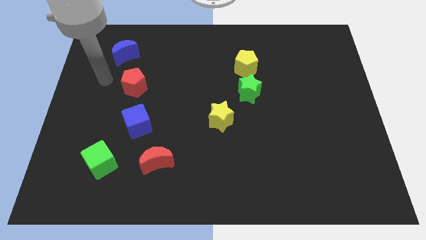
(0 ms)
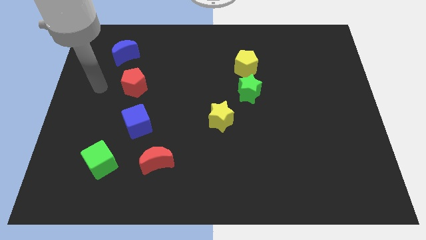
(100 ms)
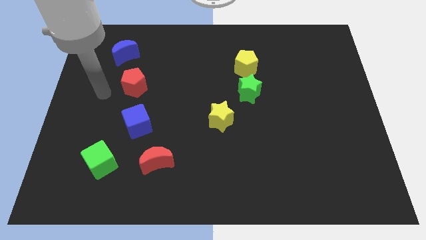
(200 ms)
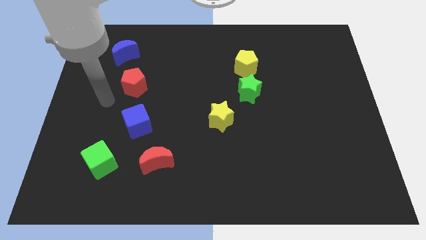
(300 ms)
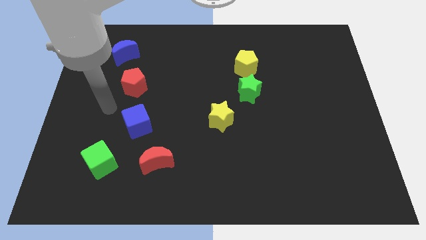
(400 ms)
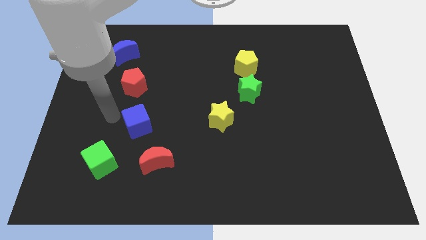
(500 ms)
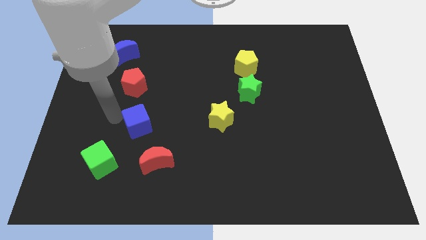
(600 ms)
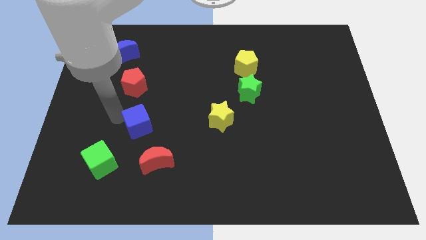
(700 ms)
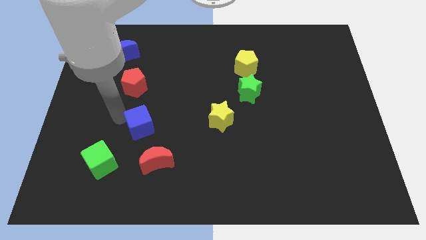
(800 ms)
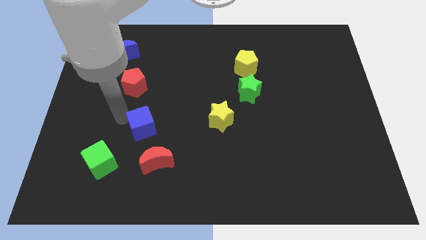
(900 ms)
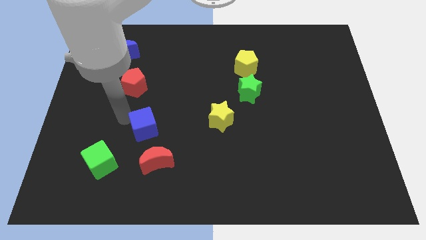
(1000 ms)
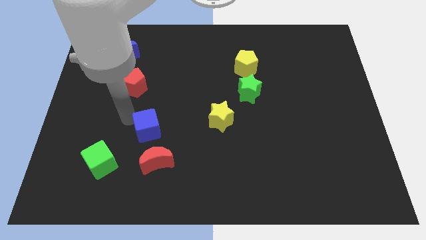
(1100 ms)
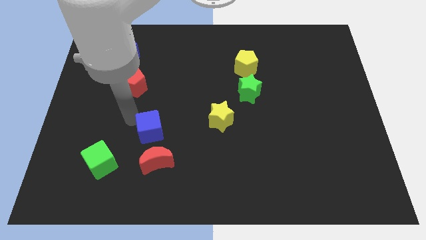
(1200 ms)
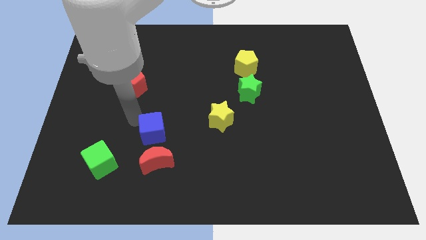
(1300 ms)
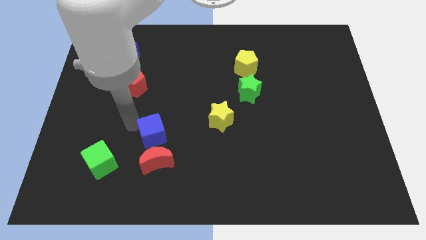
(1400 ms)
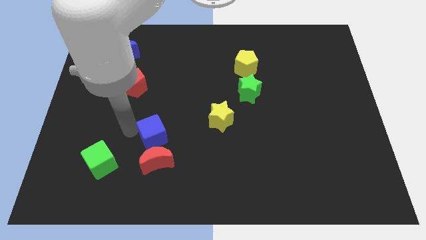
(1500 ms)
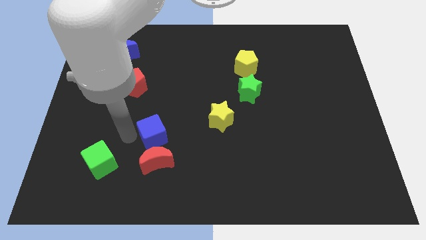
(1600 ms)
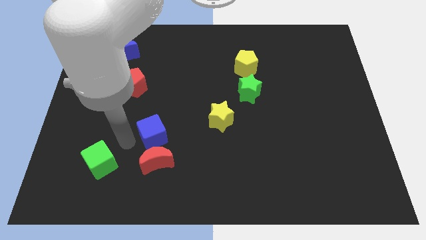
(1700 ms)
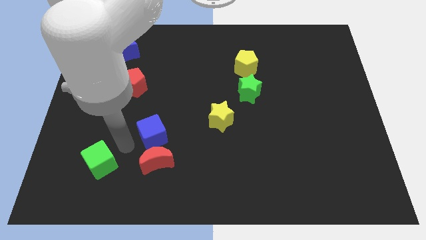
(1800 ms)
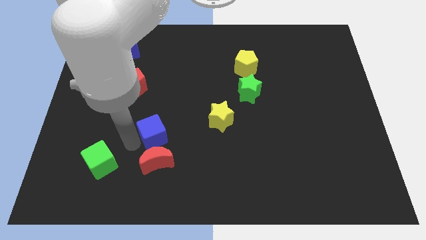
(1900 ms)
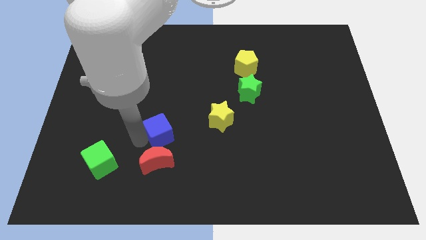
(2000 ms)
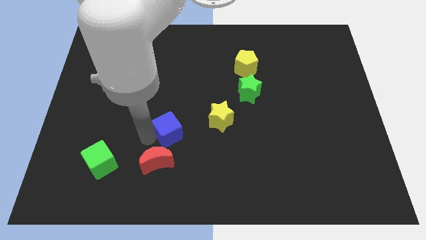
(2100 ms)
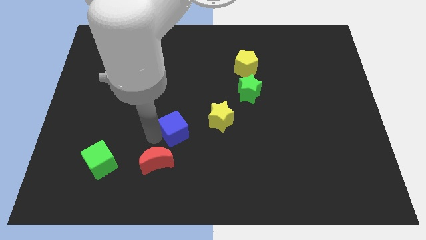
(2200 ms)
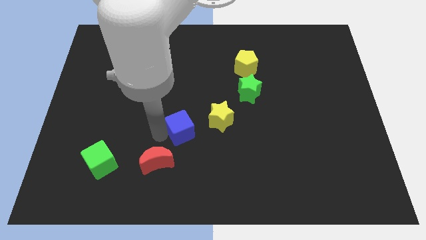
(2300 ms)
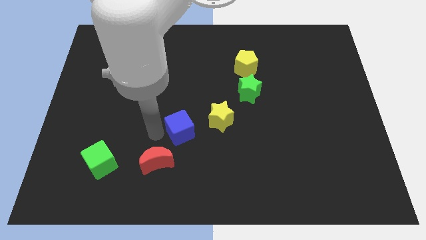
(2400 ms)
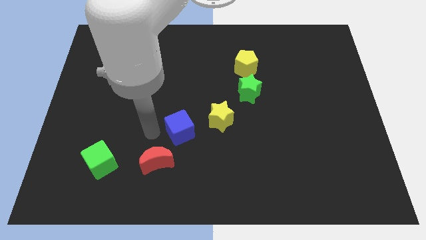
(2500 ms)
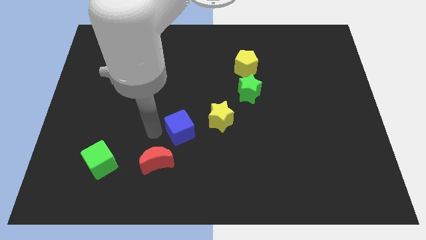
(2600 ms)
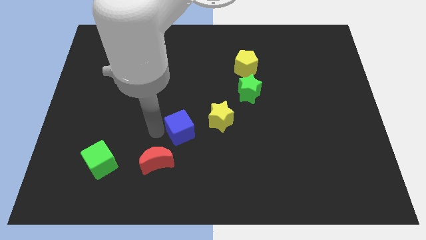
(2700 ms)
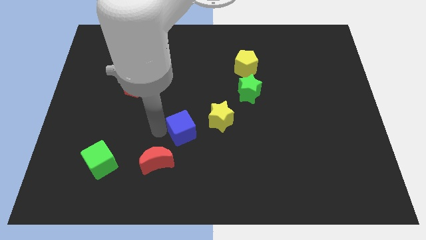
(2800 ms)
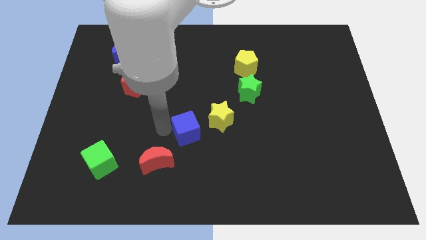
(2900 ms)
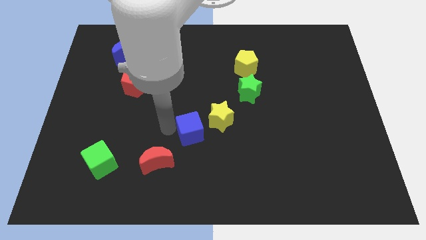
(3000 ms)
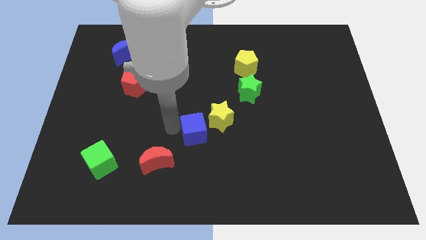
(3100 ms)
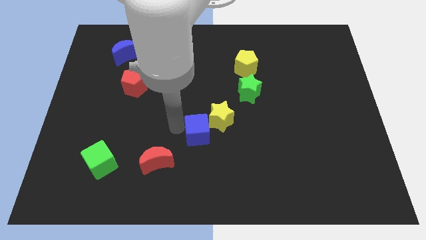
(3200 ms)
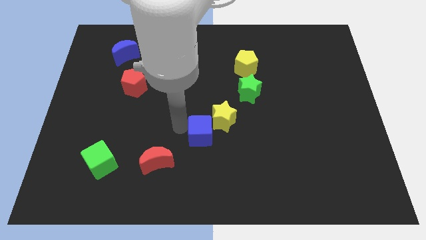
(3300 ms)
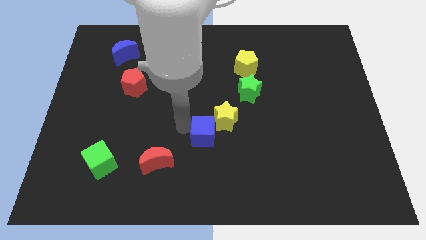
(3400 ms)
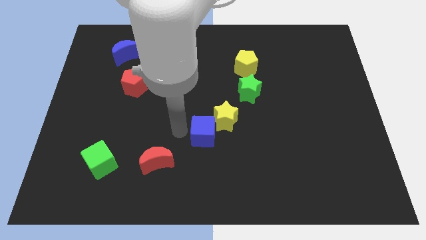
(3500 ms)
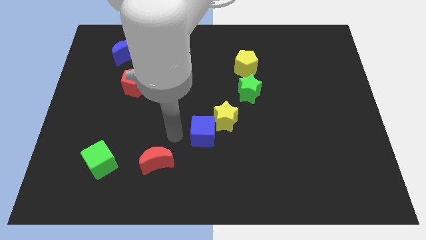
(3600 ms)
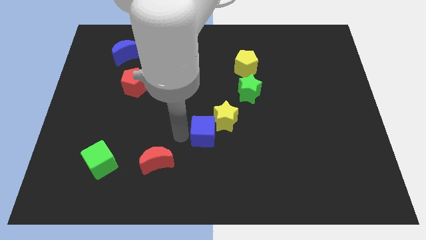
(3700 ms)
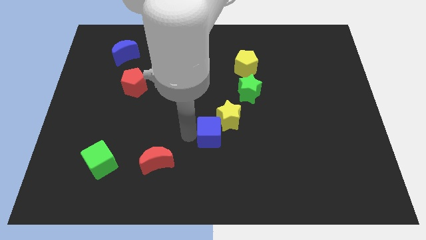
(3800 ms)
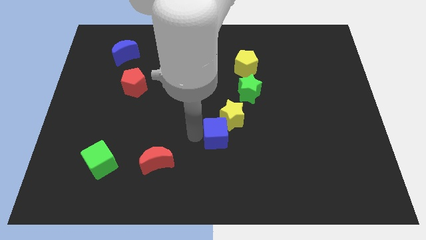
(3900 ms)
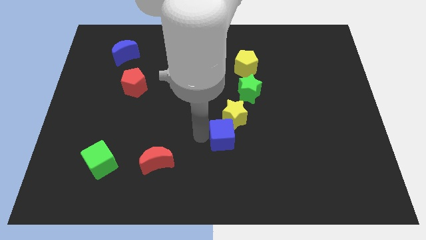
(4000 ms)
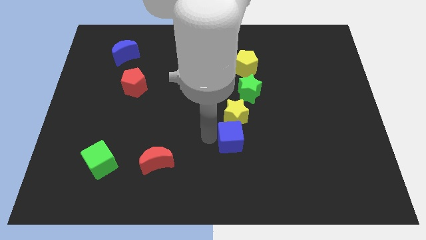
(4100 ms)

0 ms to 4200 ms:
push the blue cube right

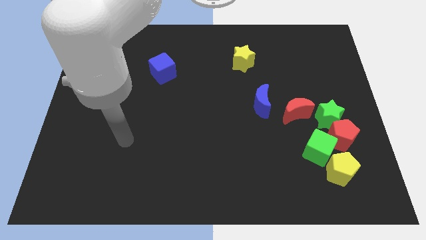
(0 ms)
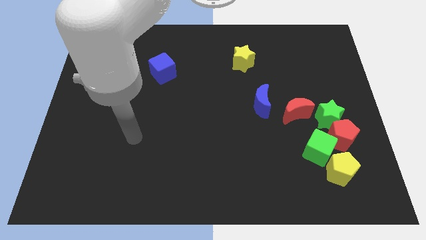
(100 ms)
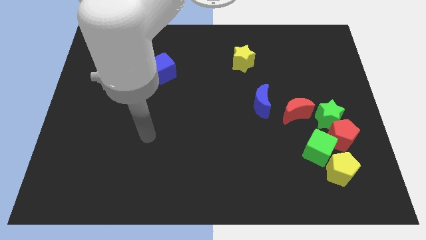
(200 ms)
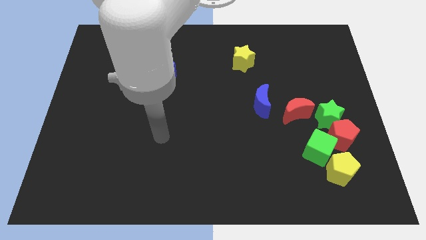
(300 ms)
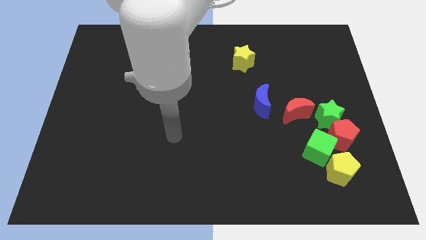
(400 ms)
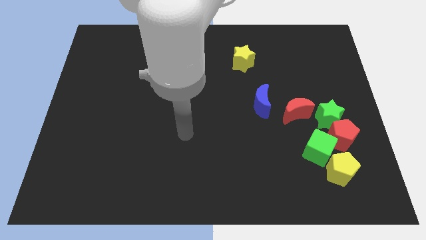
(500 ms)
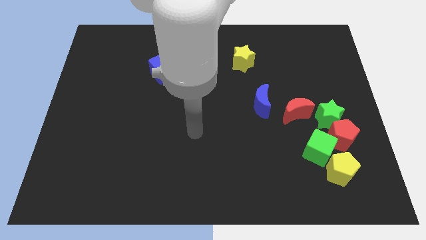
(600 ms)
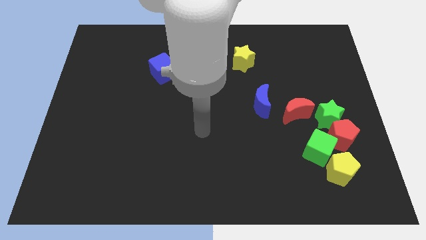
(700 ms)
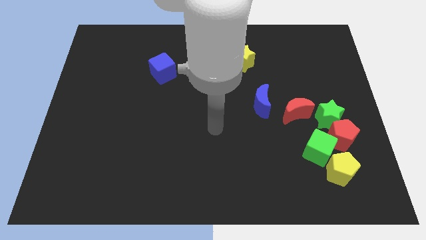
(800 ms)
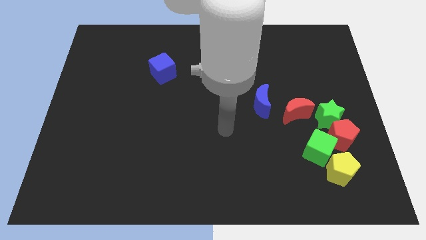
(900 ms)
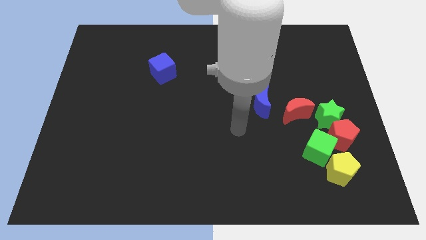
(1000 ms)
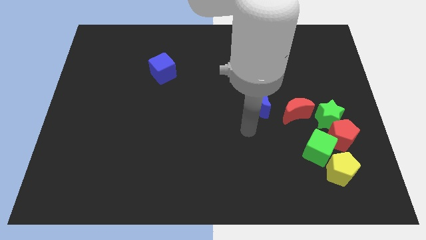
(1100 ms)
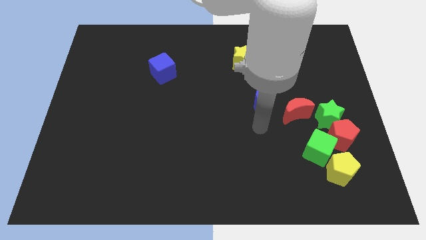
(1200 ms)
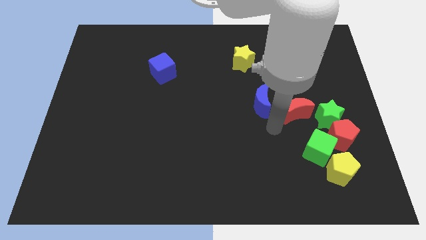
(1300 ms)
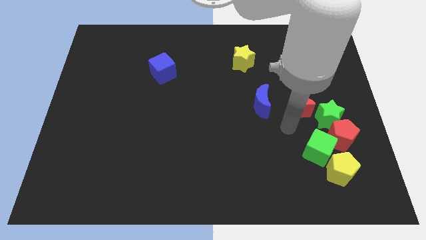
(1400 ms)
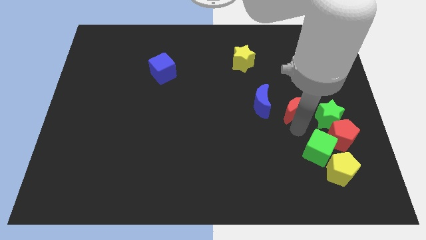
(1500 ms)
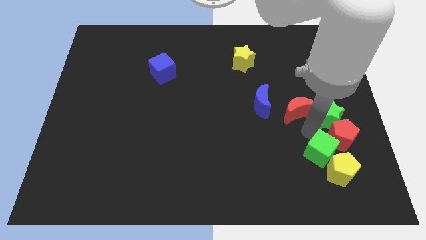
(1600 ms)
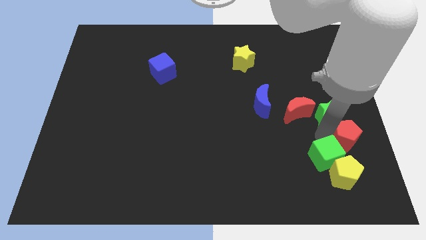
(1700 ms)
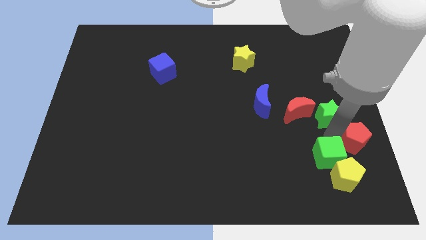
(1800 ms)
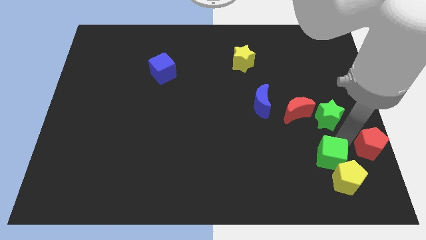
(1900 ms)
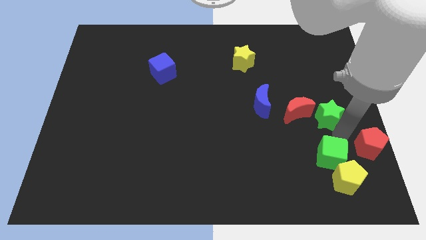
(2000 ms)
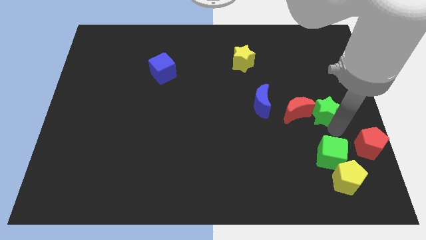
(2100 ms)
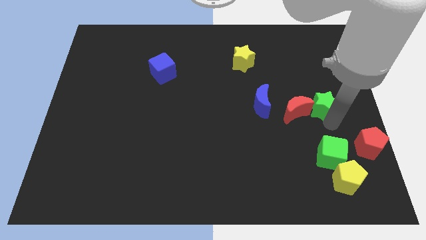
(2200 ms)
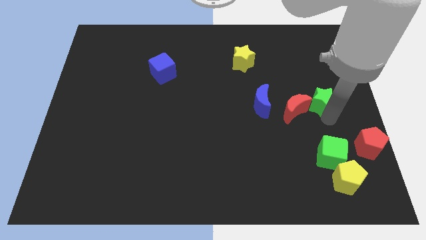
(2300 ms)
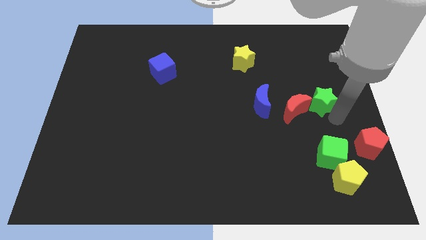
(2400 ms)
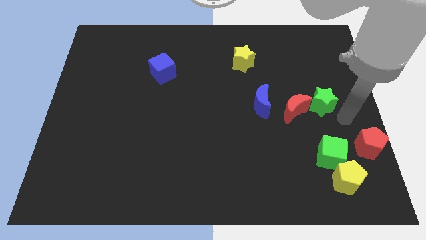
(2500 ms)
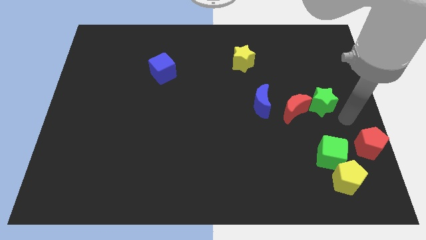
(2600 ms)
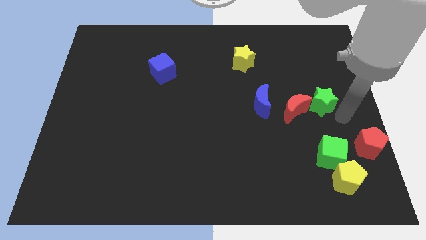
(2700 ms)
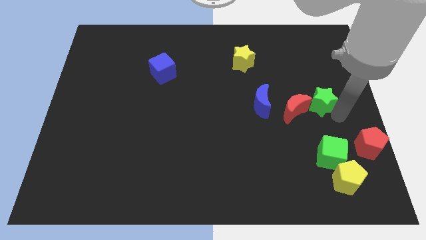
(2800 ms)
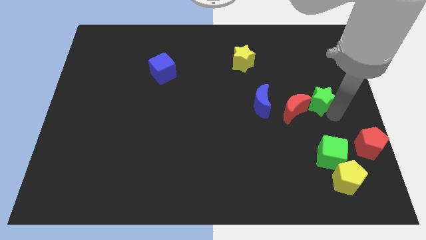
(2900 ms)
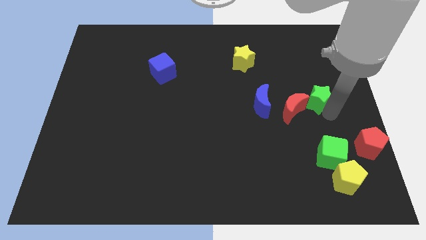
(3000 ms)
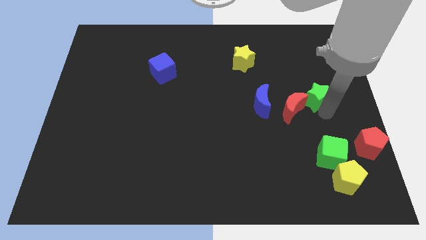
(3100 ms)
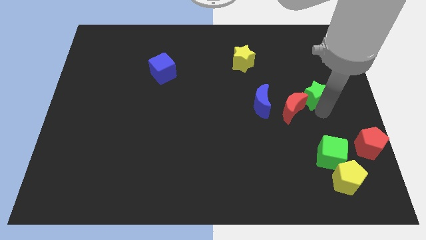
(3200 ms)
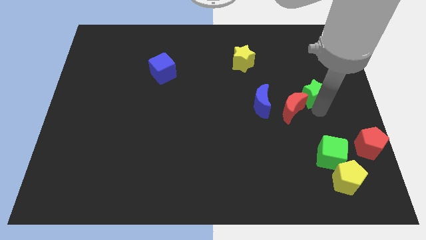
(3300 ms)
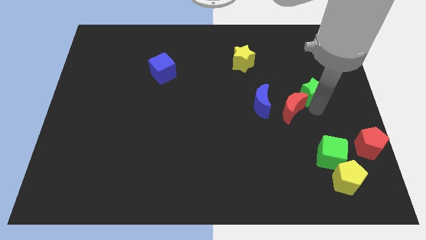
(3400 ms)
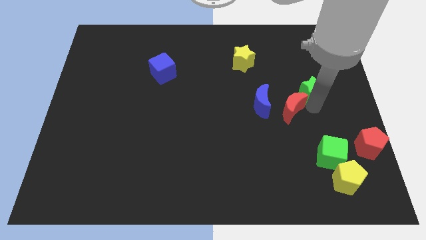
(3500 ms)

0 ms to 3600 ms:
push the green star slightly up and left diagonally
